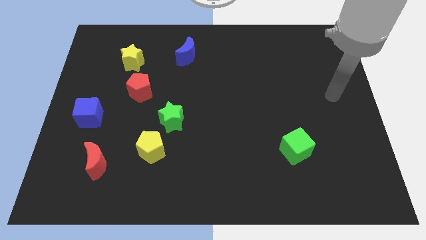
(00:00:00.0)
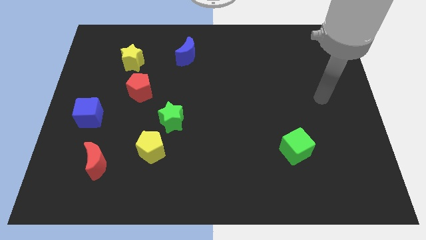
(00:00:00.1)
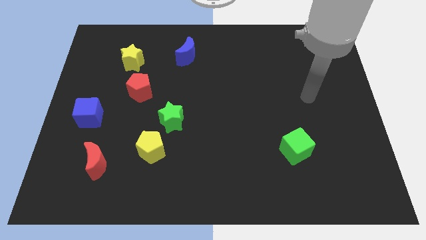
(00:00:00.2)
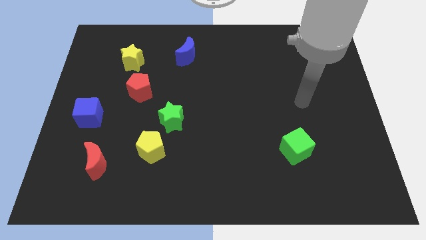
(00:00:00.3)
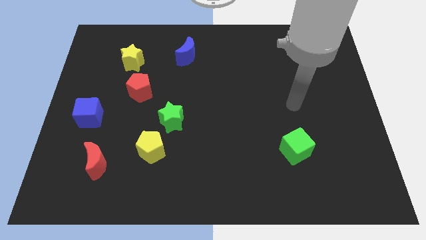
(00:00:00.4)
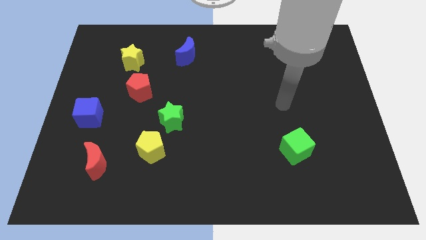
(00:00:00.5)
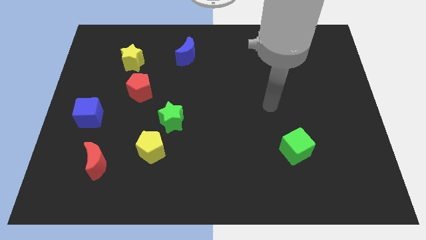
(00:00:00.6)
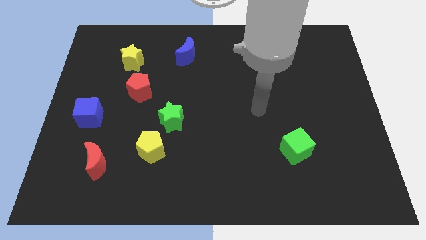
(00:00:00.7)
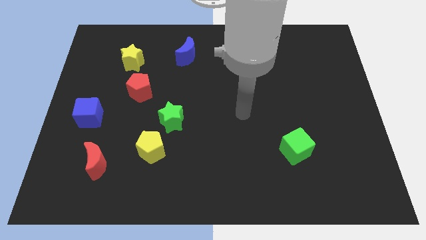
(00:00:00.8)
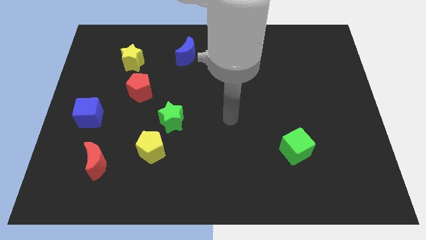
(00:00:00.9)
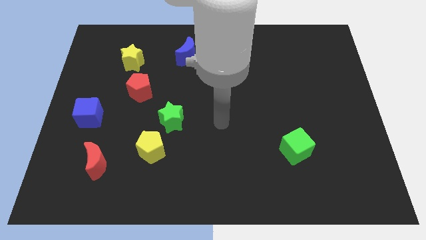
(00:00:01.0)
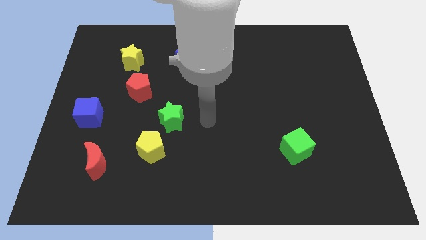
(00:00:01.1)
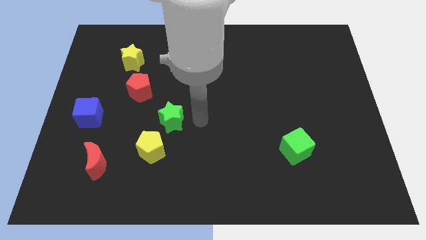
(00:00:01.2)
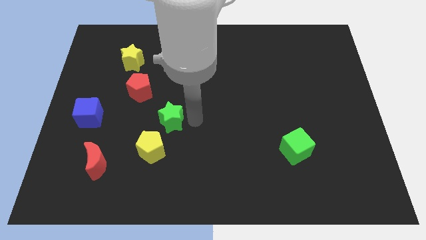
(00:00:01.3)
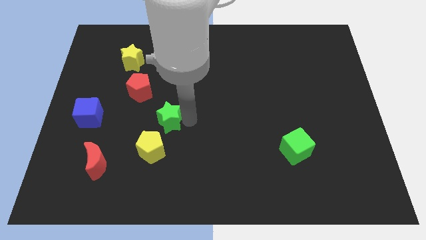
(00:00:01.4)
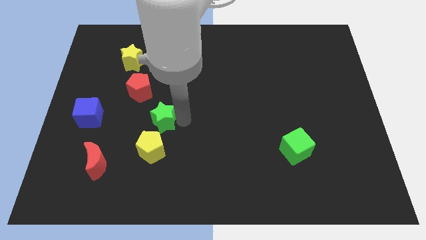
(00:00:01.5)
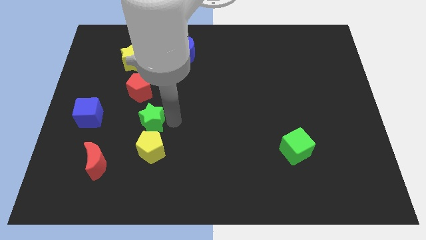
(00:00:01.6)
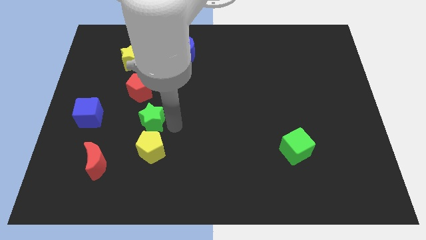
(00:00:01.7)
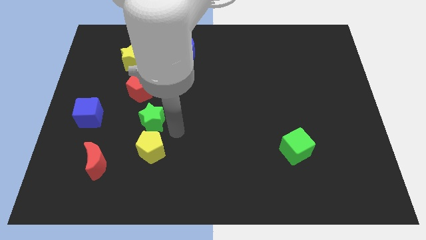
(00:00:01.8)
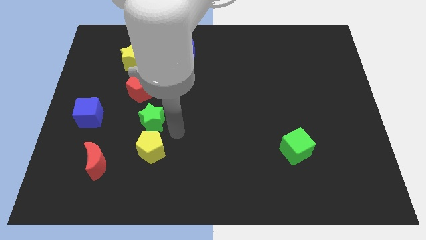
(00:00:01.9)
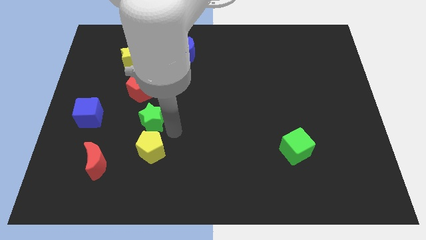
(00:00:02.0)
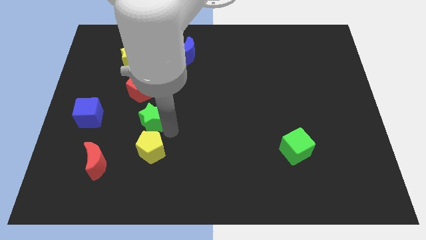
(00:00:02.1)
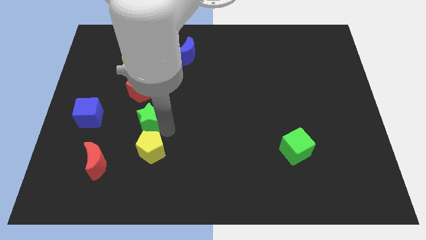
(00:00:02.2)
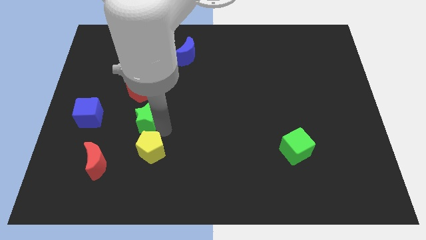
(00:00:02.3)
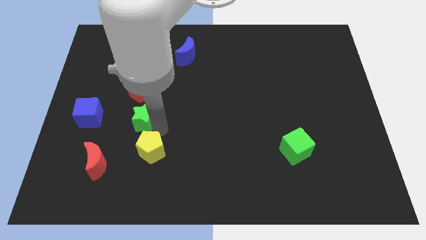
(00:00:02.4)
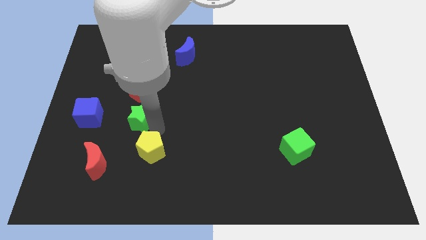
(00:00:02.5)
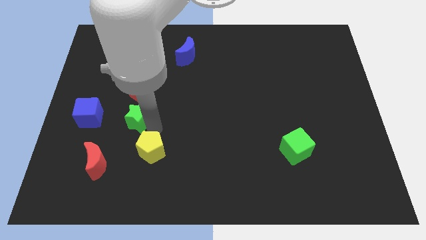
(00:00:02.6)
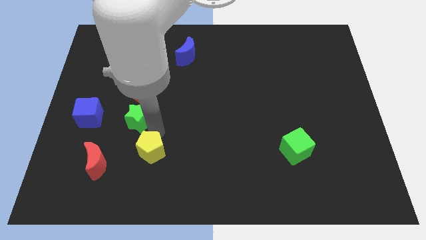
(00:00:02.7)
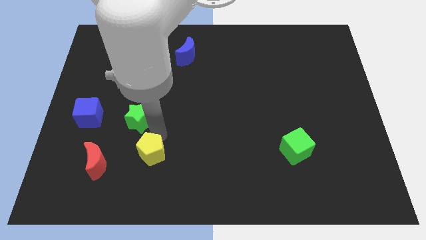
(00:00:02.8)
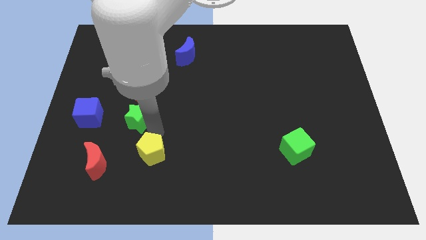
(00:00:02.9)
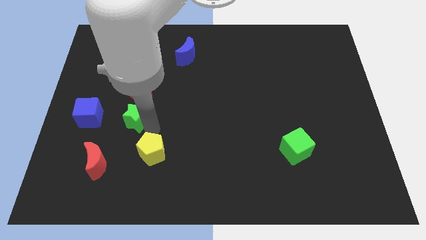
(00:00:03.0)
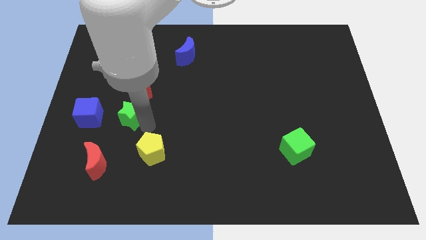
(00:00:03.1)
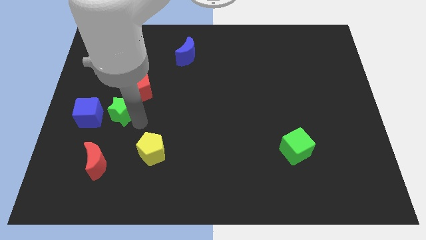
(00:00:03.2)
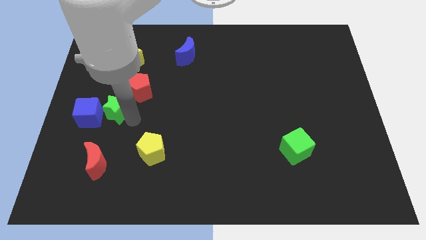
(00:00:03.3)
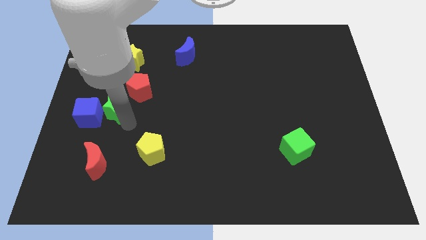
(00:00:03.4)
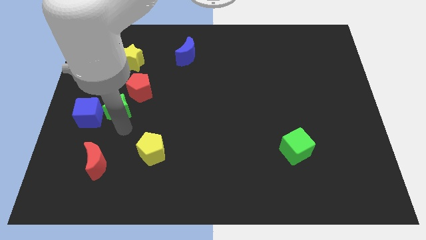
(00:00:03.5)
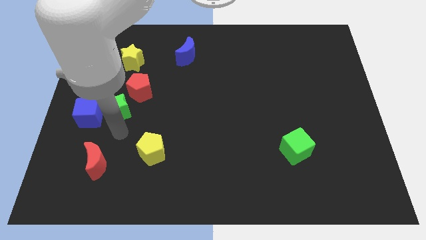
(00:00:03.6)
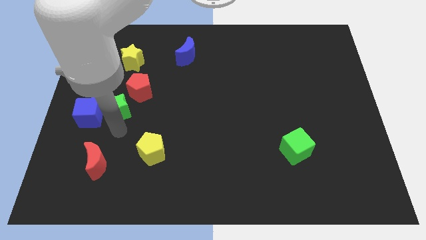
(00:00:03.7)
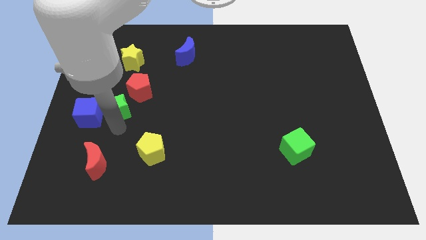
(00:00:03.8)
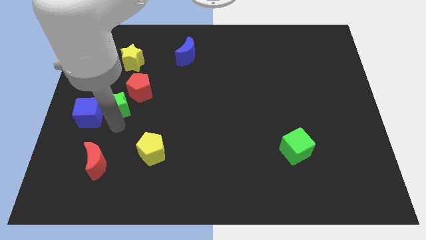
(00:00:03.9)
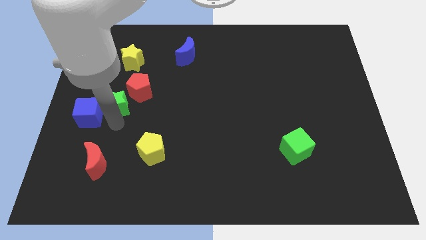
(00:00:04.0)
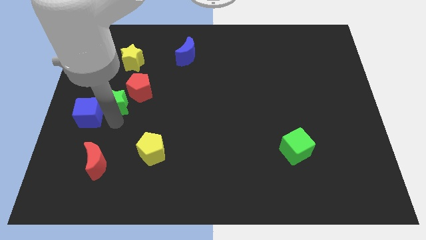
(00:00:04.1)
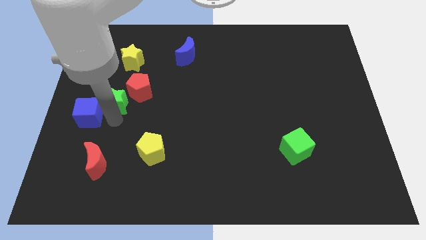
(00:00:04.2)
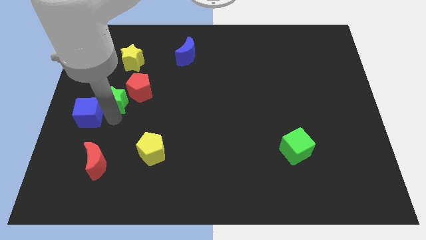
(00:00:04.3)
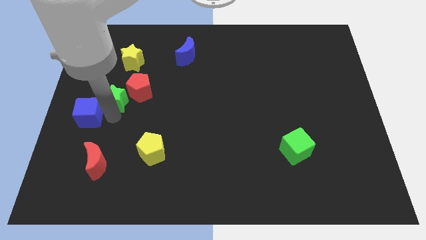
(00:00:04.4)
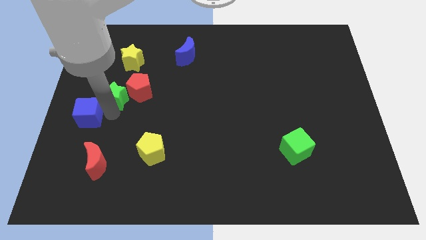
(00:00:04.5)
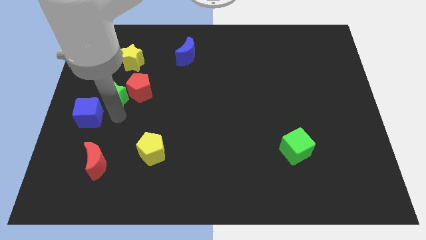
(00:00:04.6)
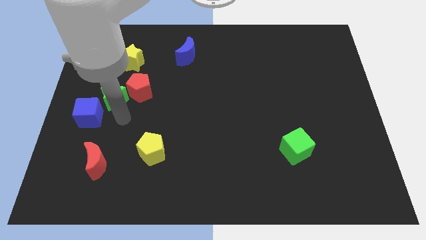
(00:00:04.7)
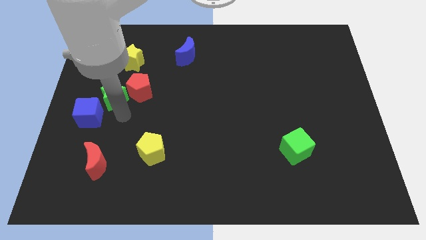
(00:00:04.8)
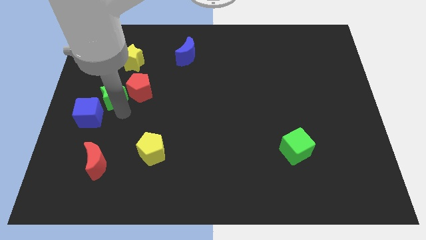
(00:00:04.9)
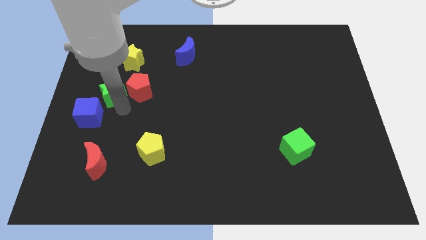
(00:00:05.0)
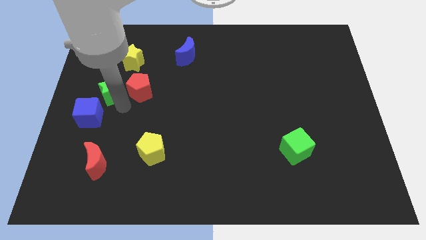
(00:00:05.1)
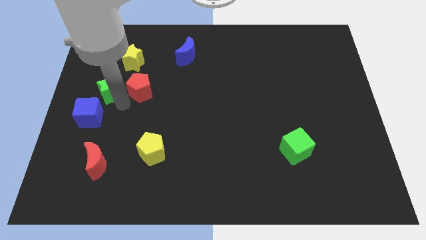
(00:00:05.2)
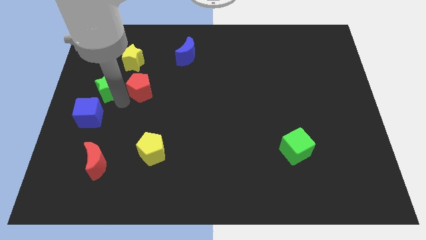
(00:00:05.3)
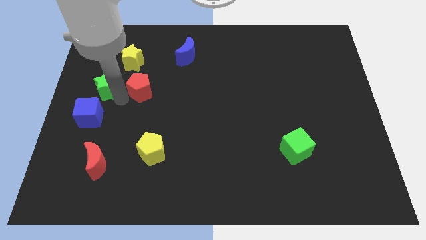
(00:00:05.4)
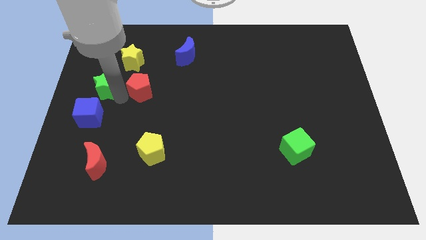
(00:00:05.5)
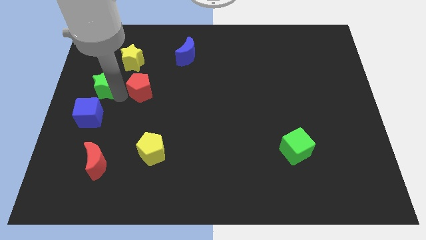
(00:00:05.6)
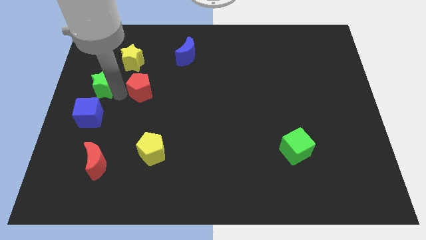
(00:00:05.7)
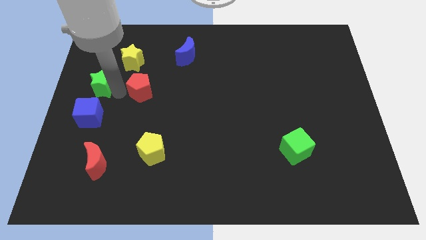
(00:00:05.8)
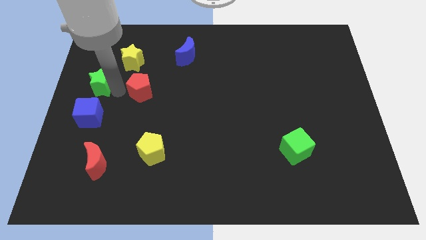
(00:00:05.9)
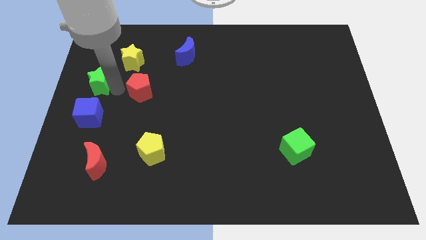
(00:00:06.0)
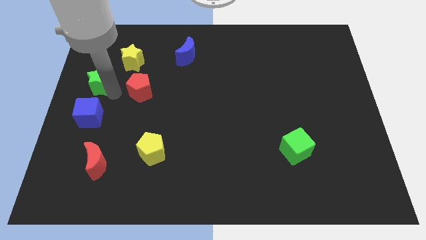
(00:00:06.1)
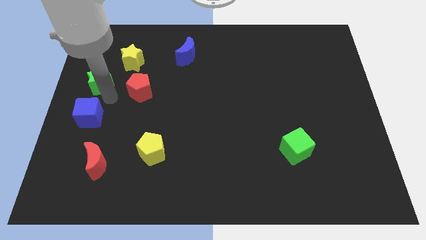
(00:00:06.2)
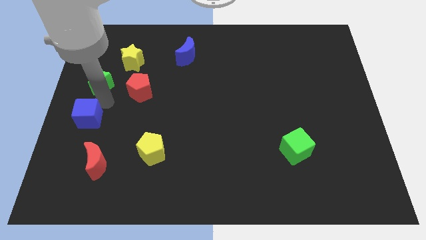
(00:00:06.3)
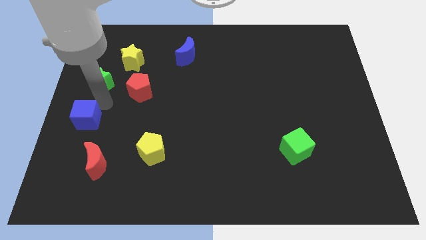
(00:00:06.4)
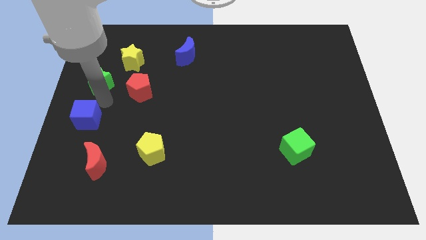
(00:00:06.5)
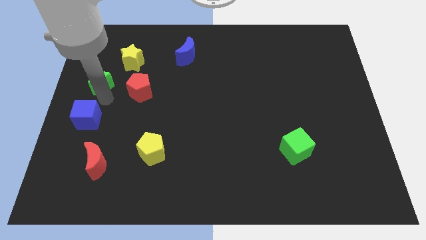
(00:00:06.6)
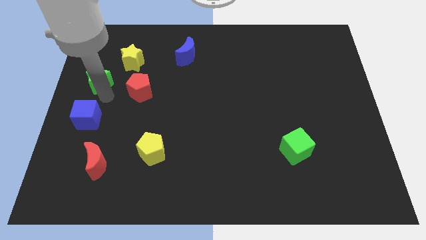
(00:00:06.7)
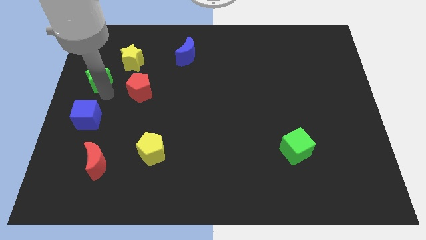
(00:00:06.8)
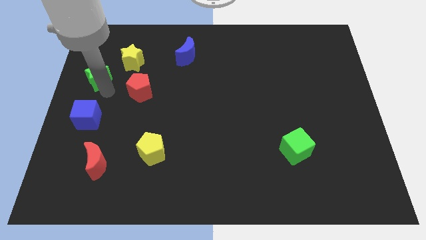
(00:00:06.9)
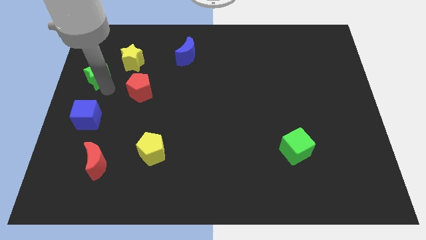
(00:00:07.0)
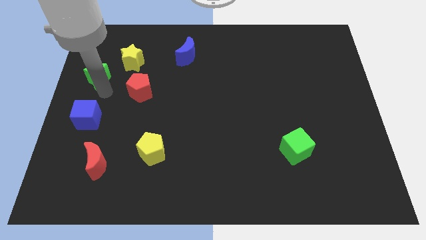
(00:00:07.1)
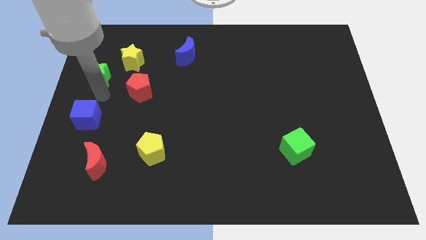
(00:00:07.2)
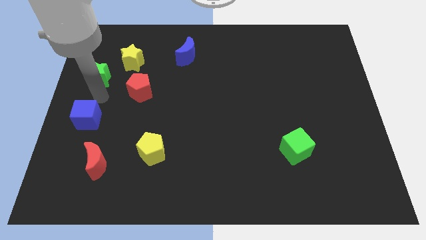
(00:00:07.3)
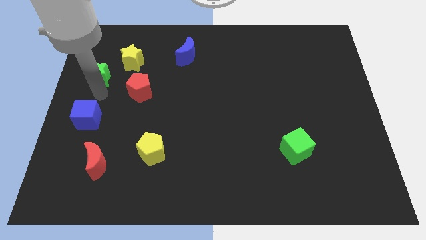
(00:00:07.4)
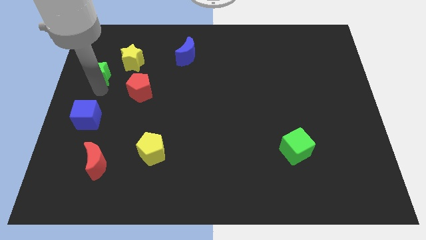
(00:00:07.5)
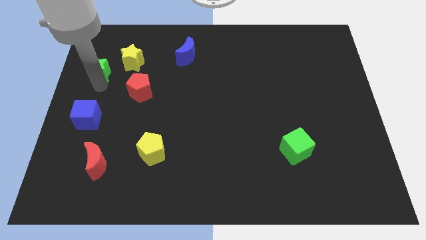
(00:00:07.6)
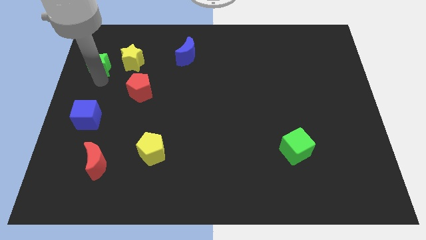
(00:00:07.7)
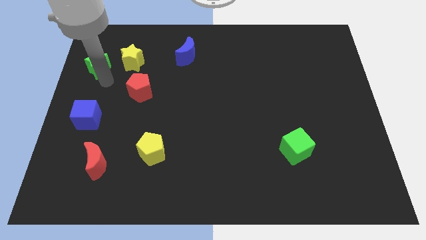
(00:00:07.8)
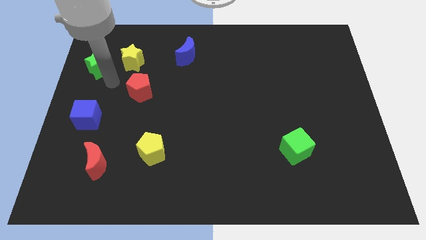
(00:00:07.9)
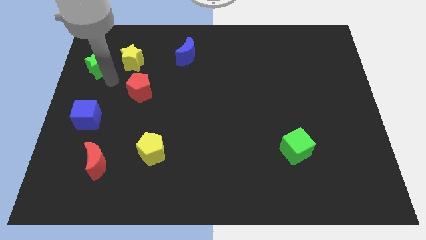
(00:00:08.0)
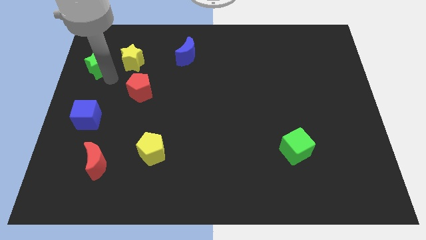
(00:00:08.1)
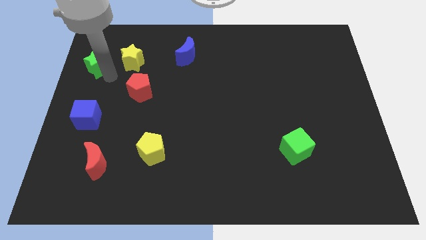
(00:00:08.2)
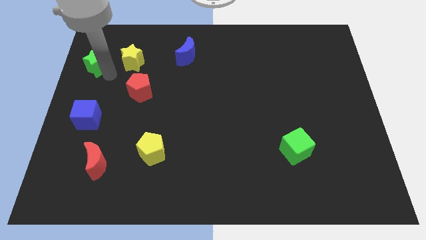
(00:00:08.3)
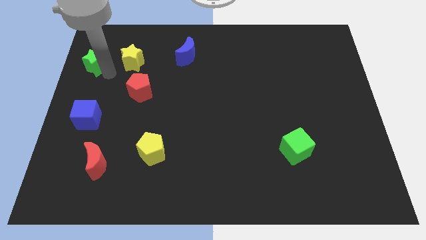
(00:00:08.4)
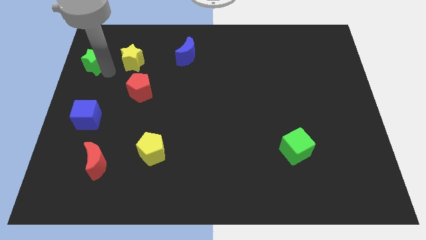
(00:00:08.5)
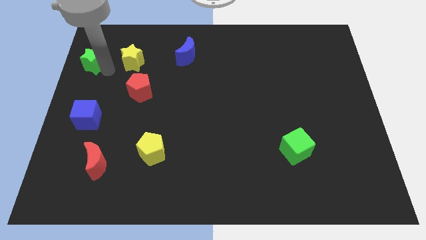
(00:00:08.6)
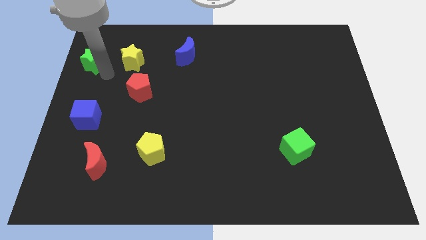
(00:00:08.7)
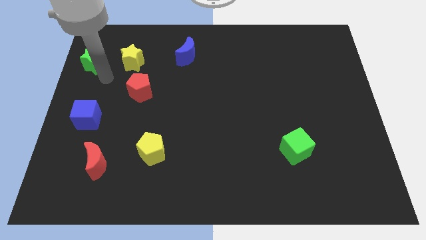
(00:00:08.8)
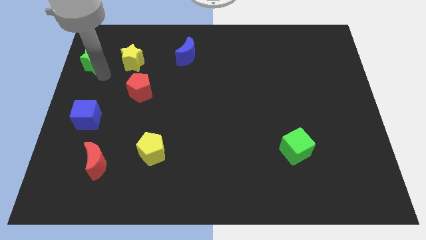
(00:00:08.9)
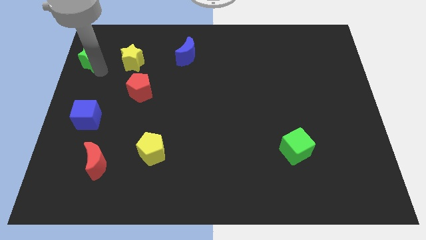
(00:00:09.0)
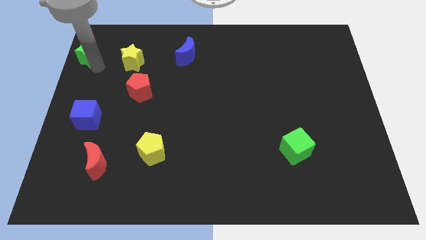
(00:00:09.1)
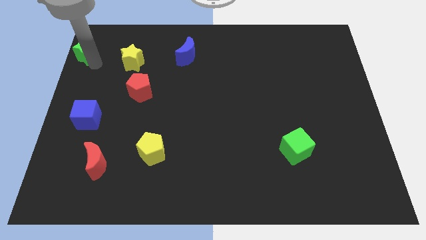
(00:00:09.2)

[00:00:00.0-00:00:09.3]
move the green star to the upper left corner
